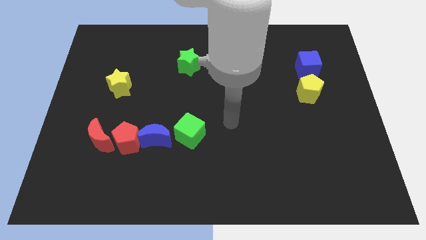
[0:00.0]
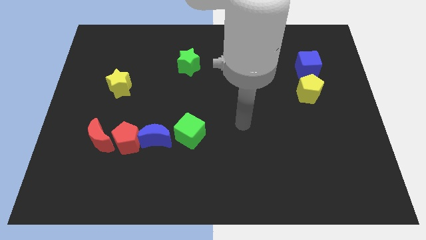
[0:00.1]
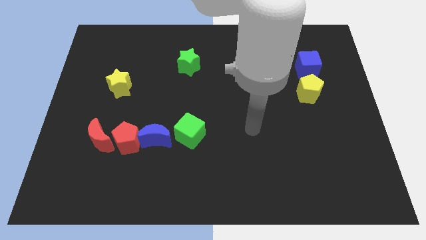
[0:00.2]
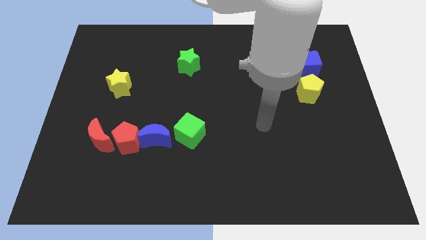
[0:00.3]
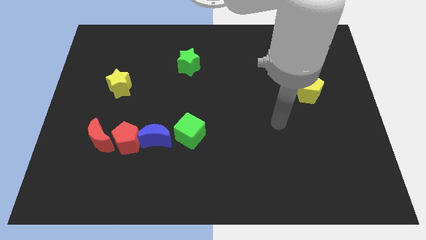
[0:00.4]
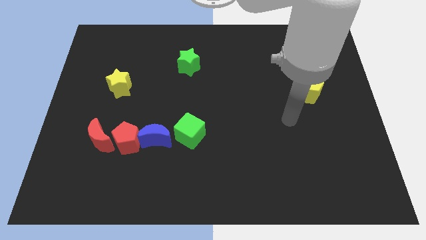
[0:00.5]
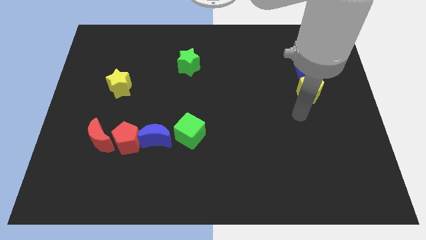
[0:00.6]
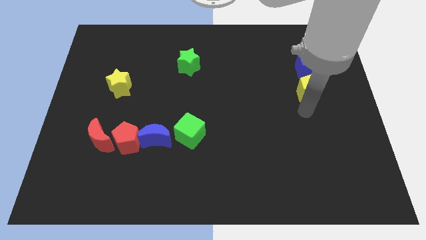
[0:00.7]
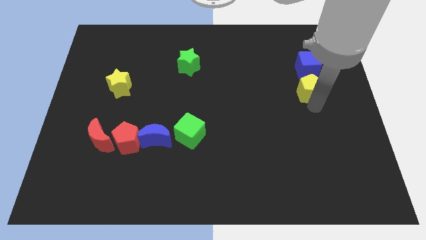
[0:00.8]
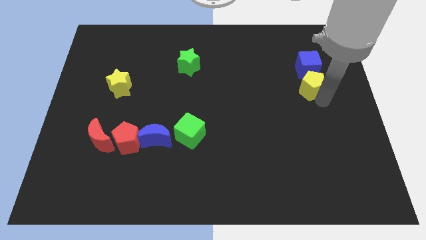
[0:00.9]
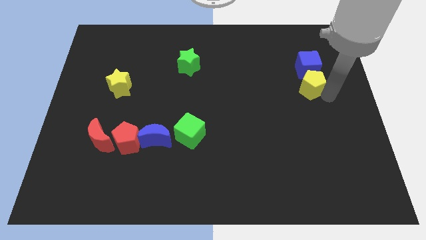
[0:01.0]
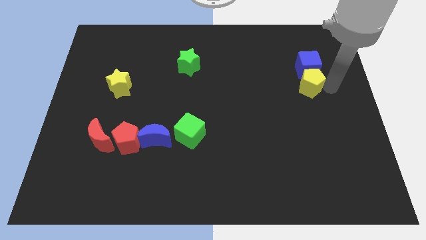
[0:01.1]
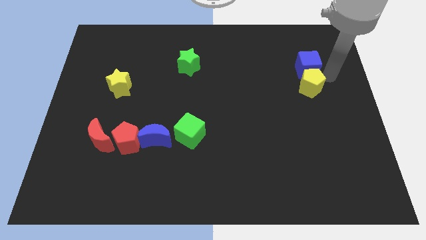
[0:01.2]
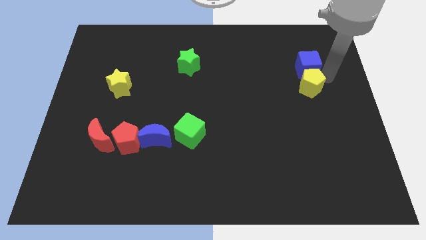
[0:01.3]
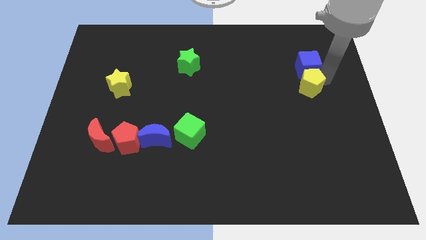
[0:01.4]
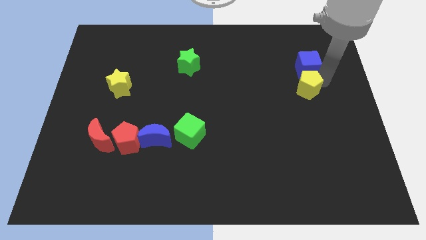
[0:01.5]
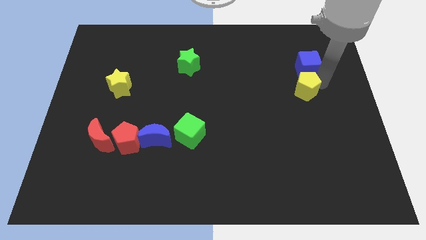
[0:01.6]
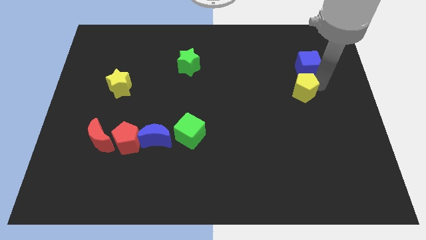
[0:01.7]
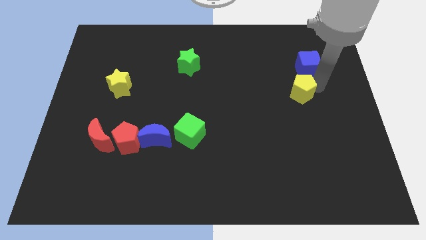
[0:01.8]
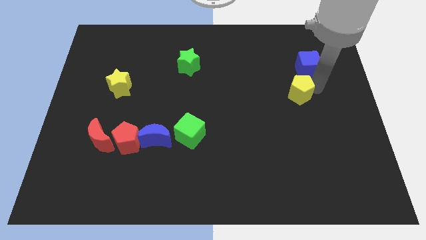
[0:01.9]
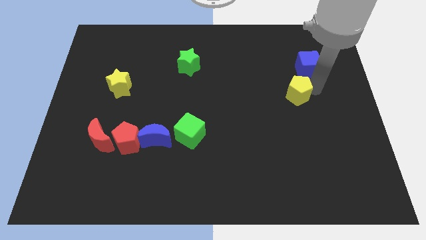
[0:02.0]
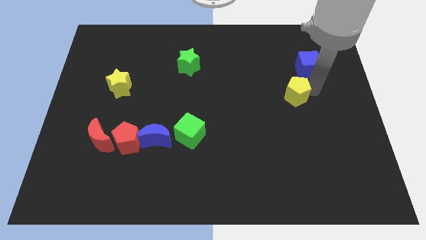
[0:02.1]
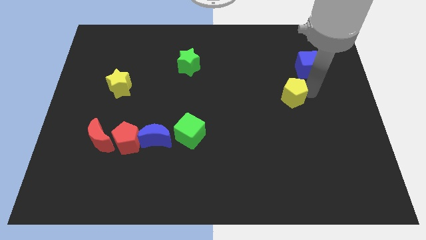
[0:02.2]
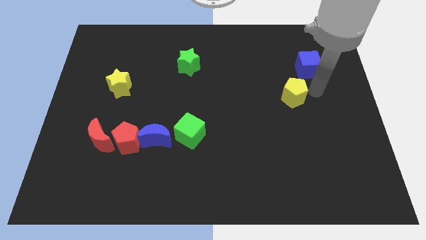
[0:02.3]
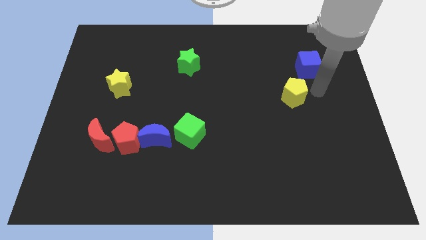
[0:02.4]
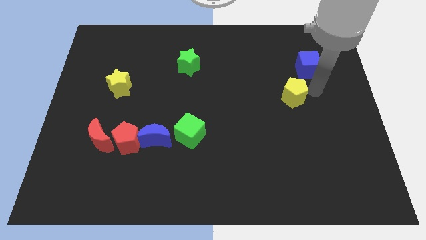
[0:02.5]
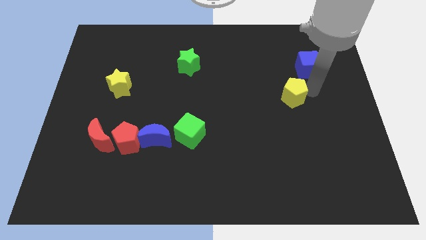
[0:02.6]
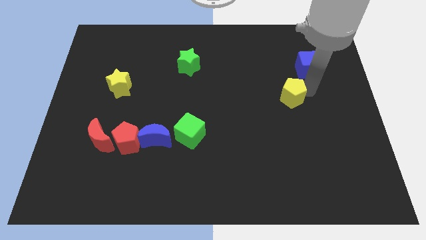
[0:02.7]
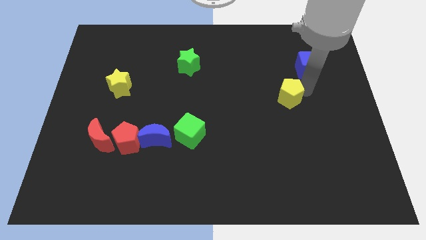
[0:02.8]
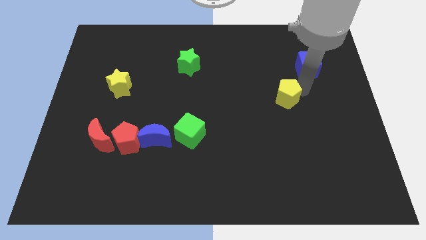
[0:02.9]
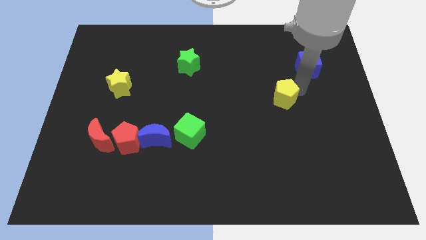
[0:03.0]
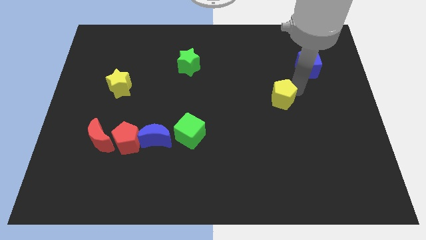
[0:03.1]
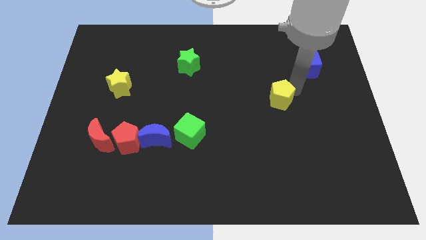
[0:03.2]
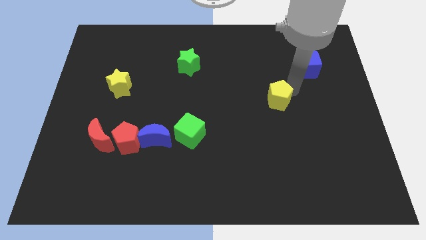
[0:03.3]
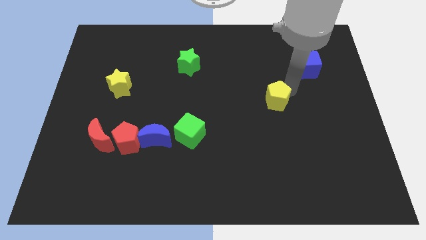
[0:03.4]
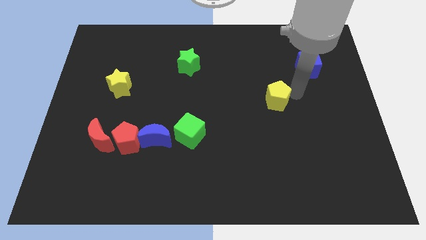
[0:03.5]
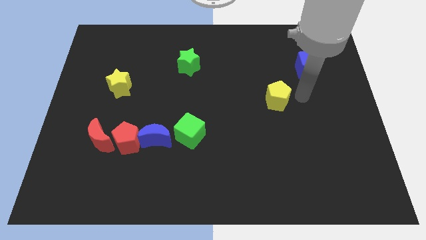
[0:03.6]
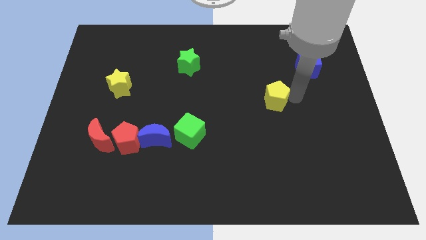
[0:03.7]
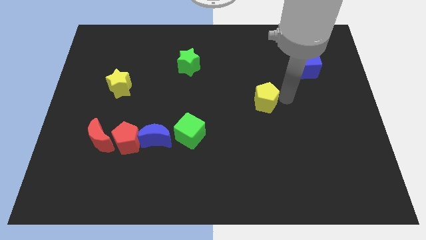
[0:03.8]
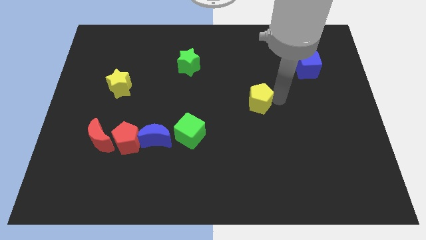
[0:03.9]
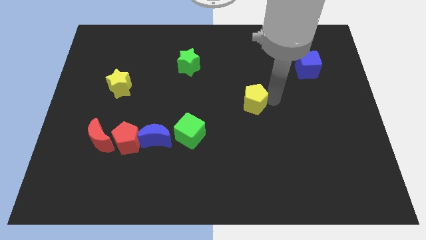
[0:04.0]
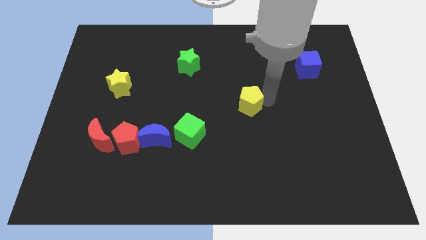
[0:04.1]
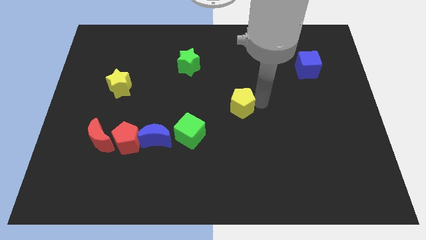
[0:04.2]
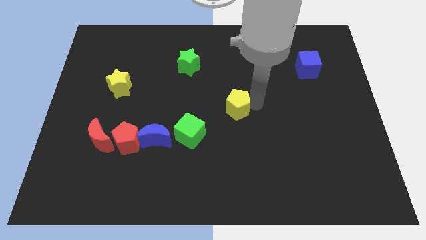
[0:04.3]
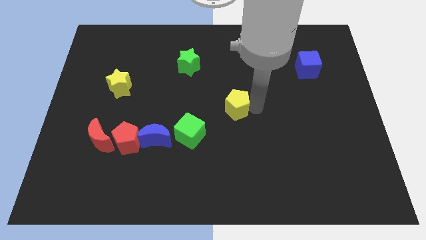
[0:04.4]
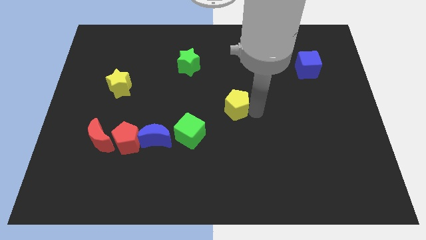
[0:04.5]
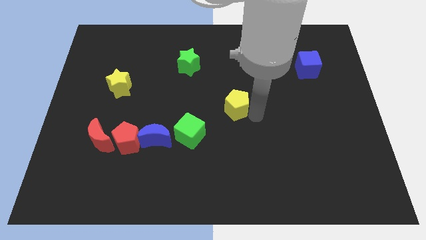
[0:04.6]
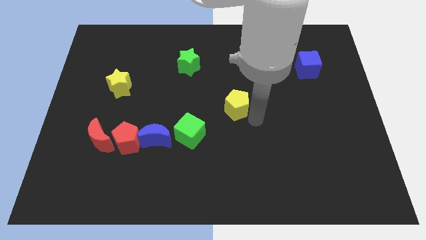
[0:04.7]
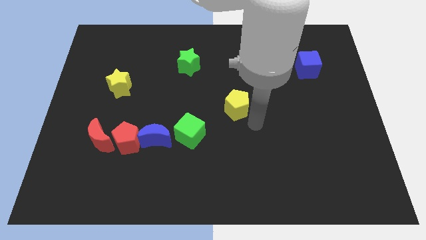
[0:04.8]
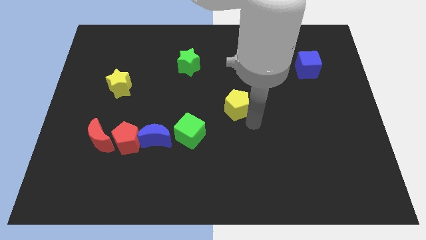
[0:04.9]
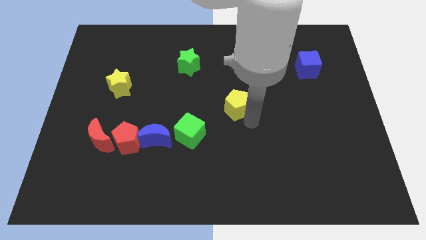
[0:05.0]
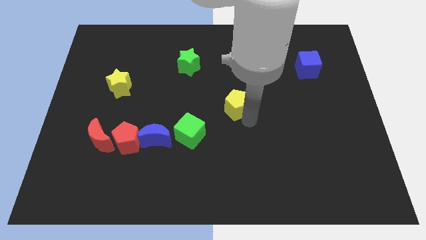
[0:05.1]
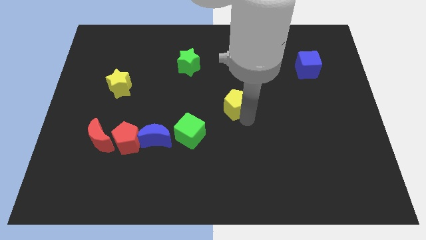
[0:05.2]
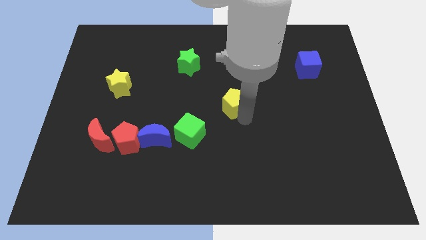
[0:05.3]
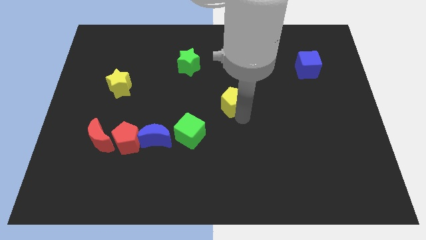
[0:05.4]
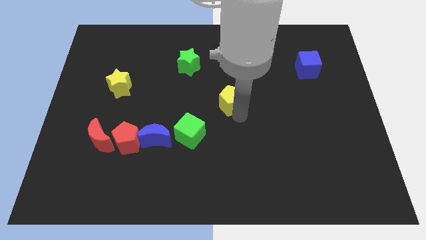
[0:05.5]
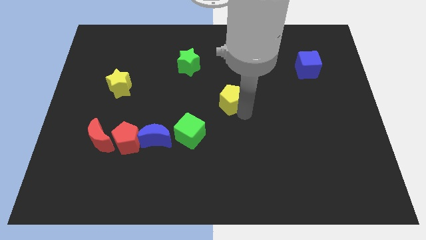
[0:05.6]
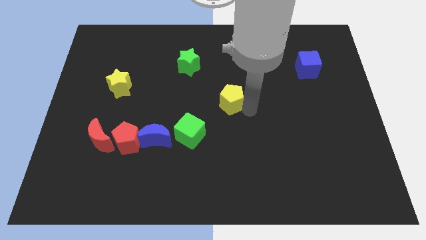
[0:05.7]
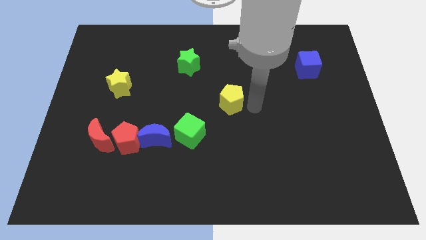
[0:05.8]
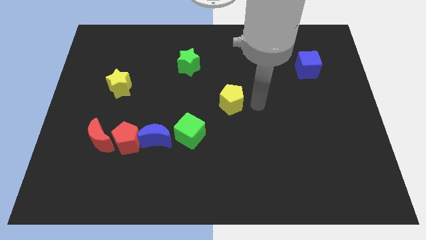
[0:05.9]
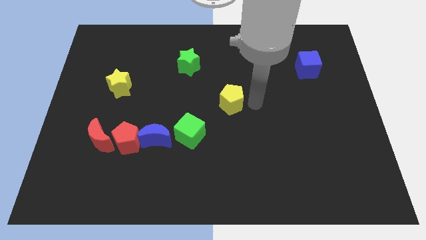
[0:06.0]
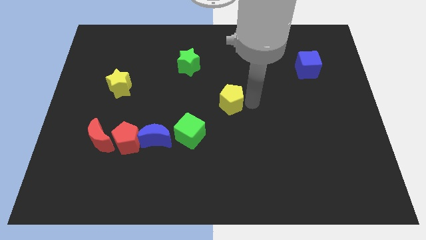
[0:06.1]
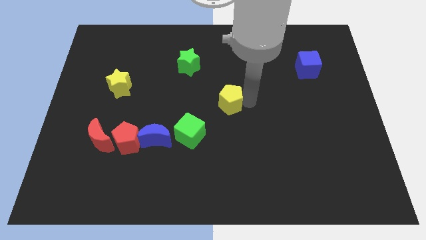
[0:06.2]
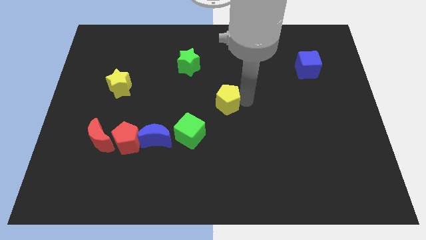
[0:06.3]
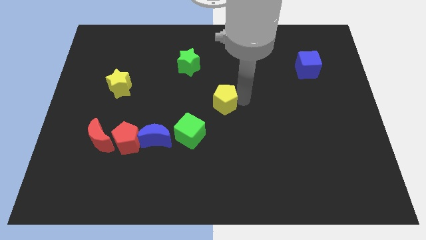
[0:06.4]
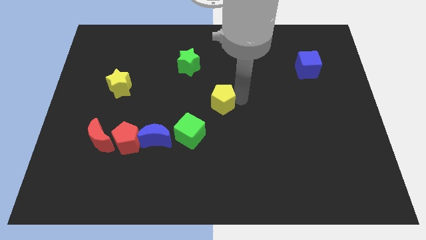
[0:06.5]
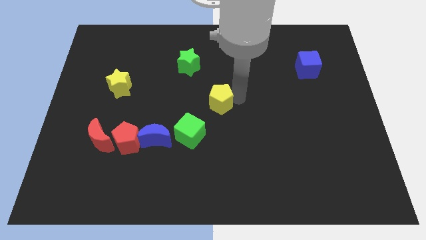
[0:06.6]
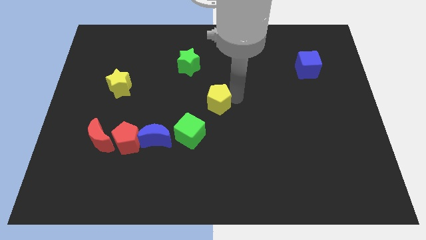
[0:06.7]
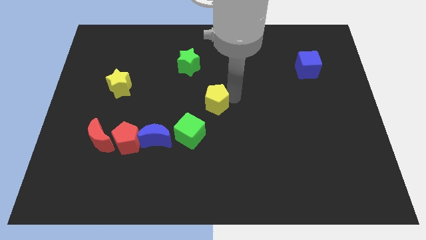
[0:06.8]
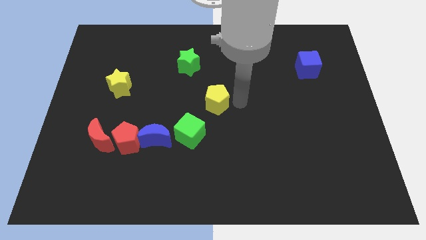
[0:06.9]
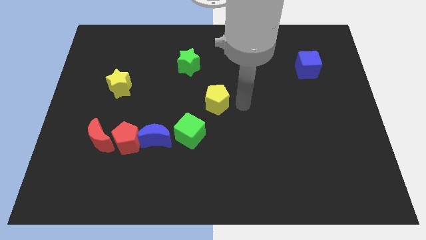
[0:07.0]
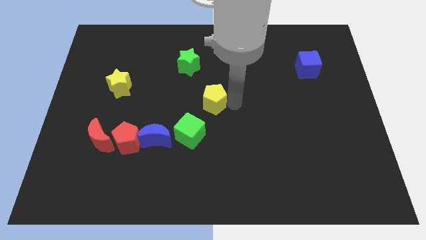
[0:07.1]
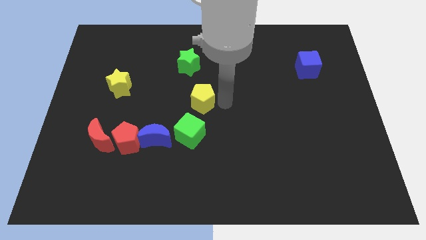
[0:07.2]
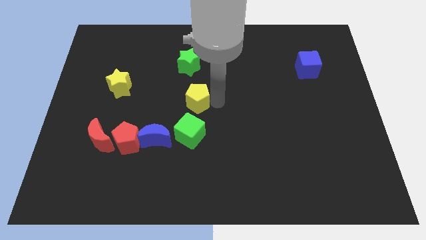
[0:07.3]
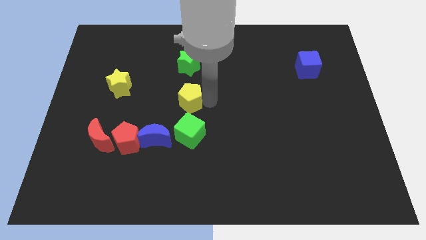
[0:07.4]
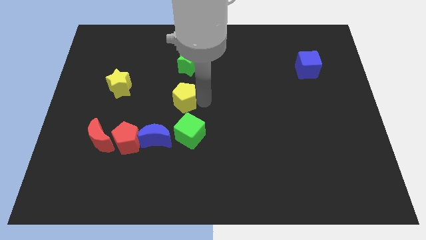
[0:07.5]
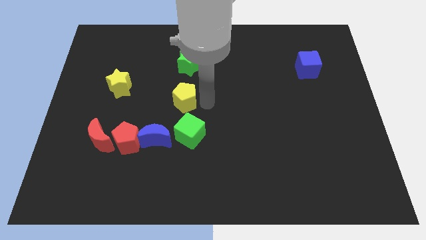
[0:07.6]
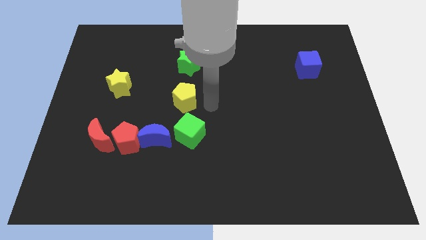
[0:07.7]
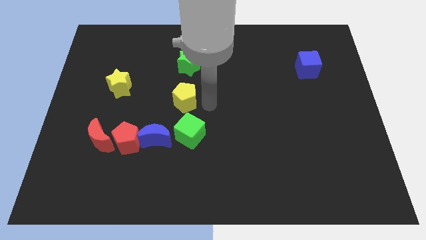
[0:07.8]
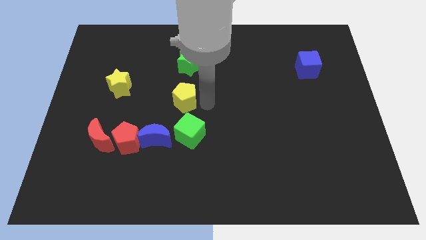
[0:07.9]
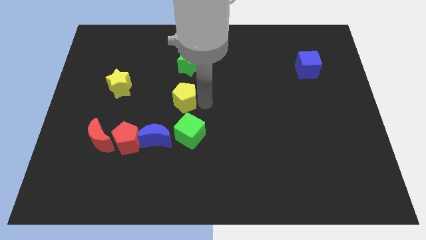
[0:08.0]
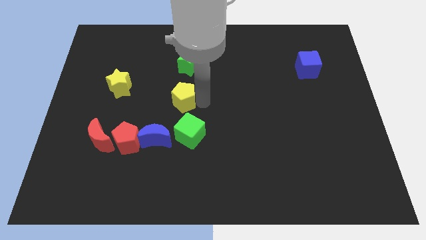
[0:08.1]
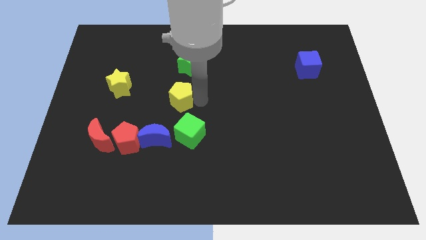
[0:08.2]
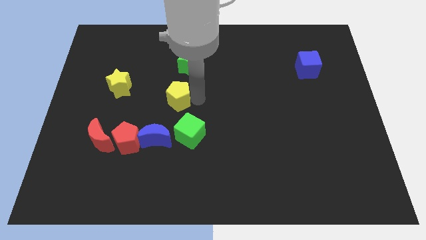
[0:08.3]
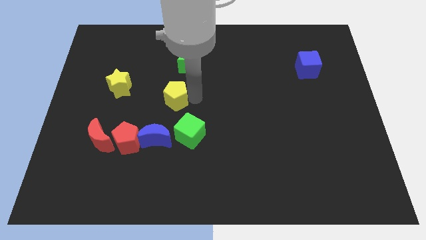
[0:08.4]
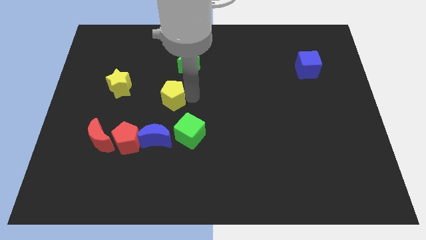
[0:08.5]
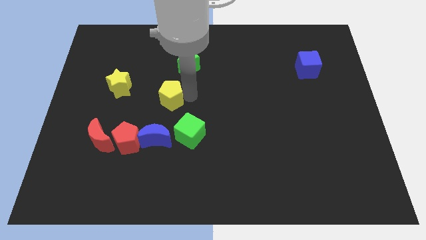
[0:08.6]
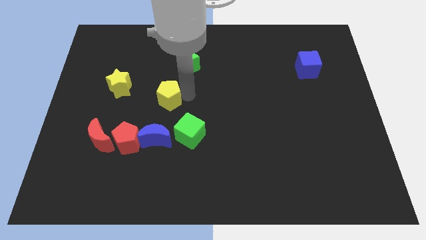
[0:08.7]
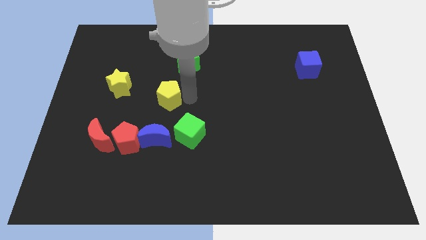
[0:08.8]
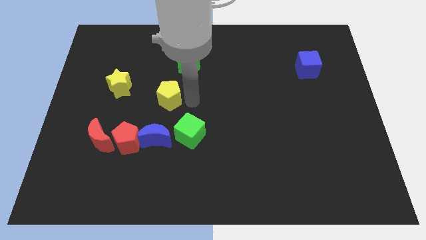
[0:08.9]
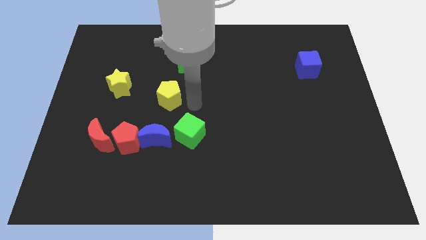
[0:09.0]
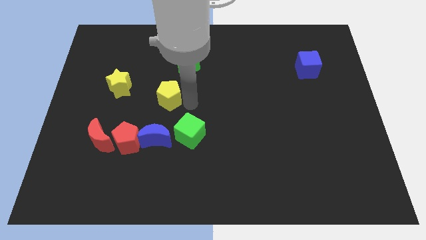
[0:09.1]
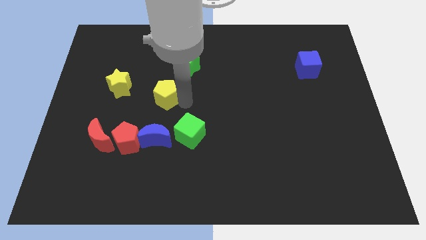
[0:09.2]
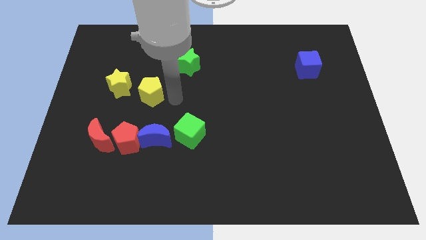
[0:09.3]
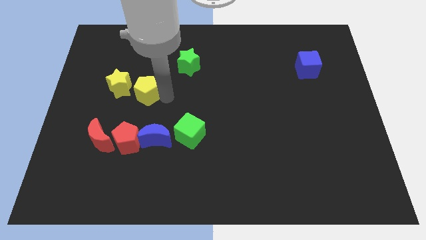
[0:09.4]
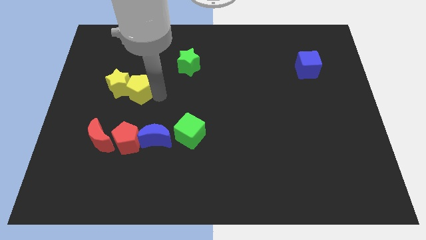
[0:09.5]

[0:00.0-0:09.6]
slide the yellow pentagon close to the yellow star
